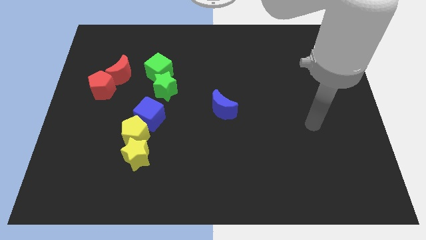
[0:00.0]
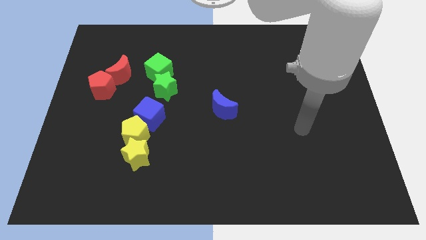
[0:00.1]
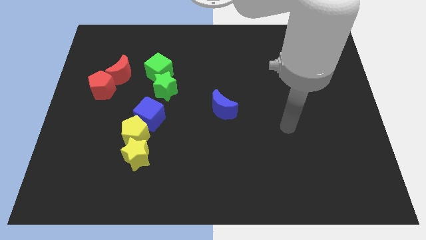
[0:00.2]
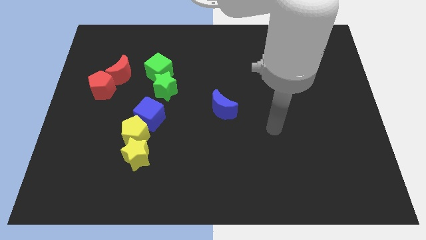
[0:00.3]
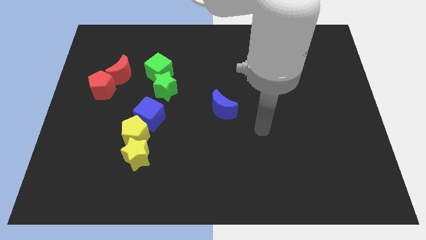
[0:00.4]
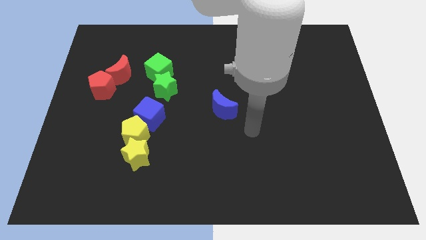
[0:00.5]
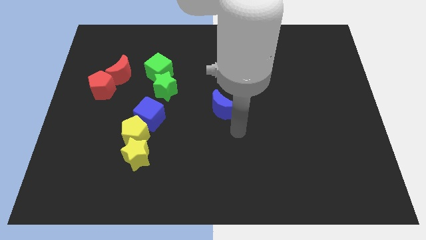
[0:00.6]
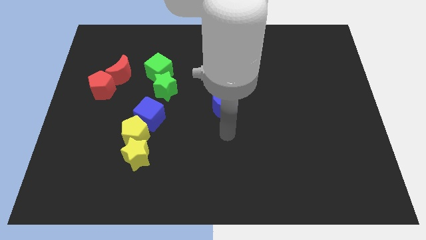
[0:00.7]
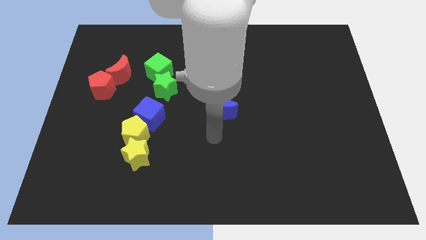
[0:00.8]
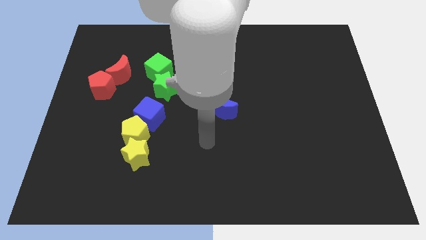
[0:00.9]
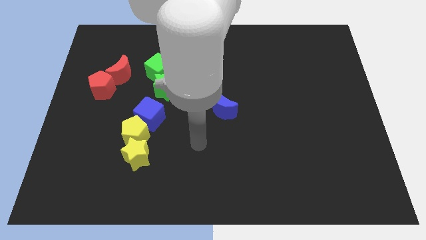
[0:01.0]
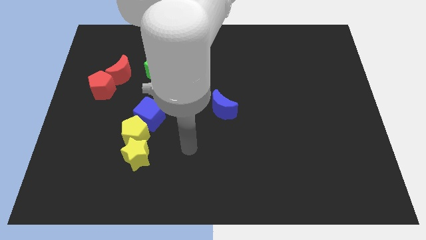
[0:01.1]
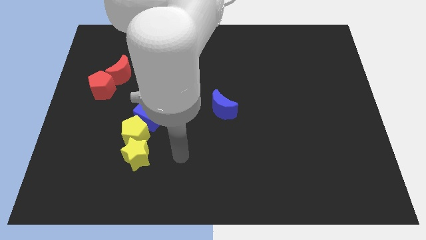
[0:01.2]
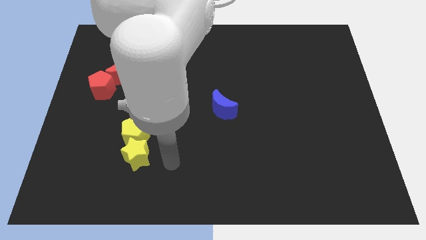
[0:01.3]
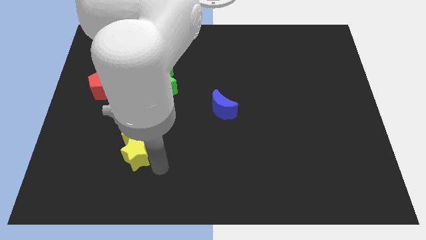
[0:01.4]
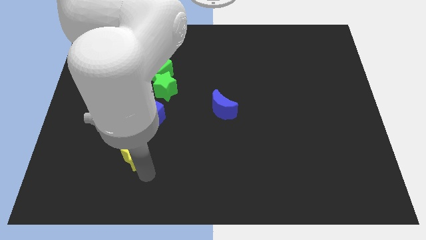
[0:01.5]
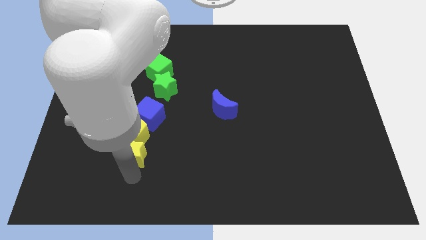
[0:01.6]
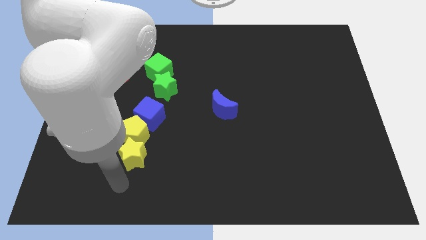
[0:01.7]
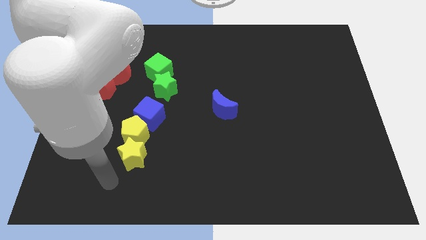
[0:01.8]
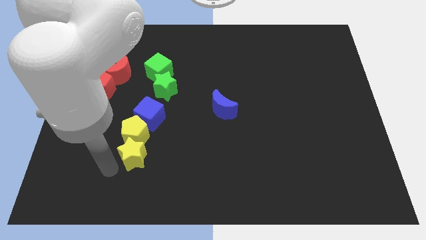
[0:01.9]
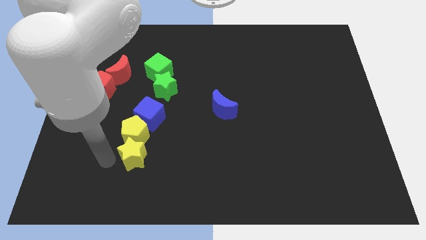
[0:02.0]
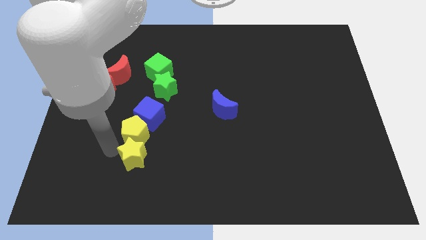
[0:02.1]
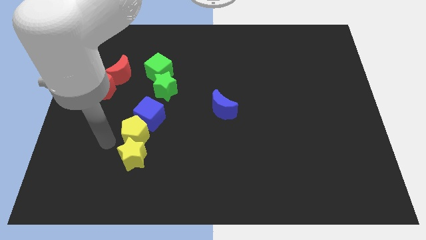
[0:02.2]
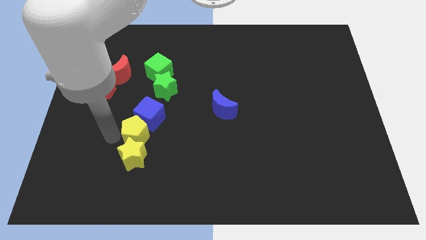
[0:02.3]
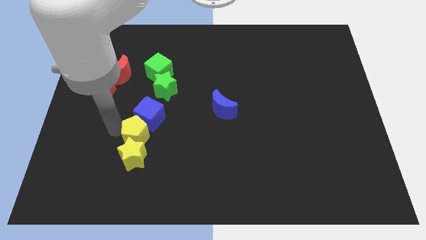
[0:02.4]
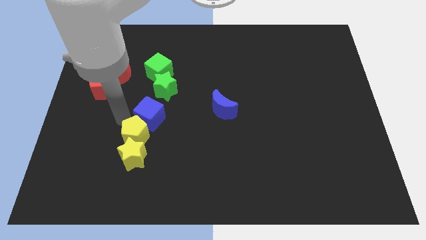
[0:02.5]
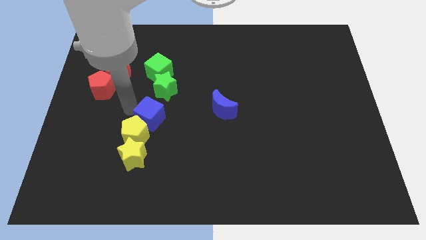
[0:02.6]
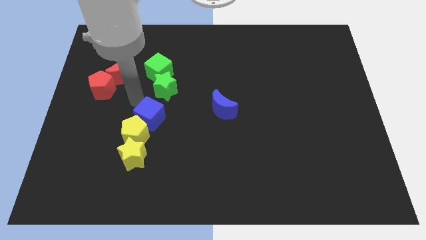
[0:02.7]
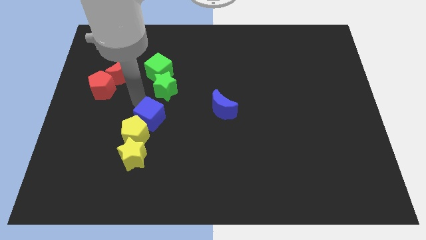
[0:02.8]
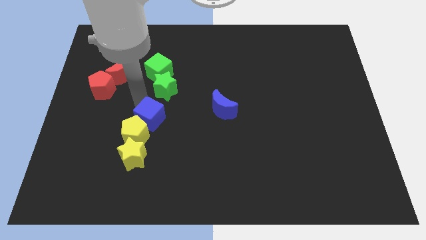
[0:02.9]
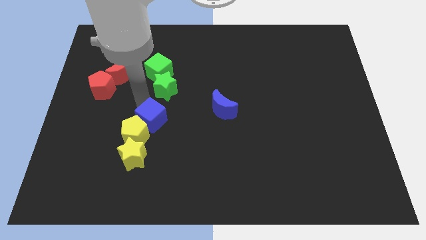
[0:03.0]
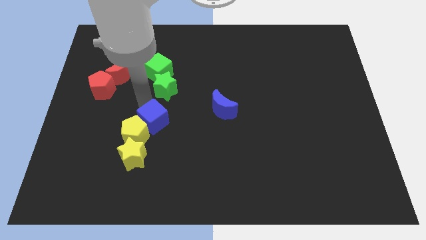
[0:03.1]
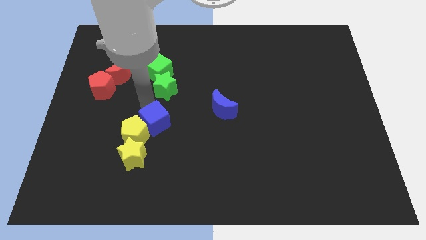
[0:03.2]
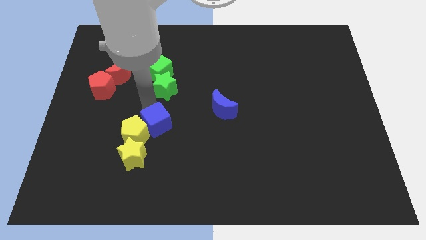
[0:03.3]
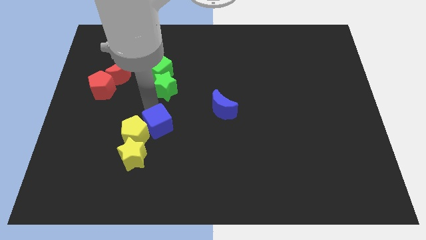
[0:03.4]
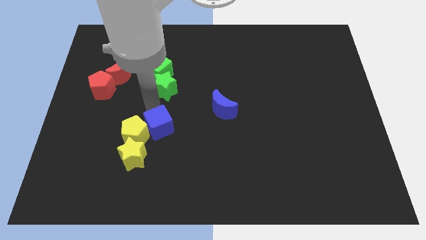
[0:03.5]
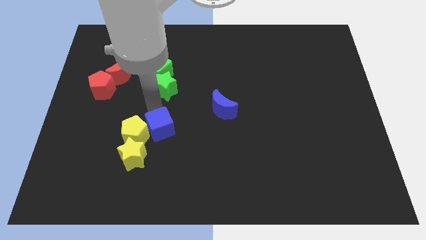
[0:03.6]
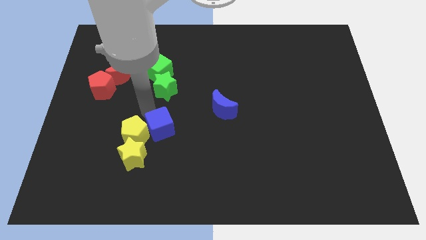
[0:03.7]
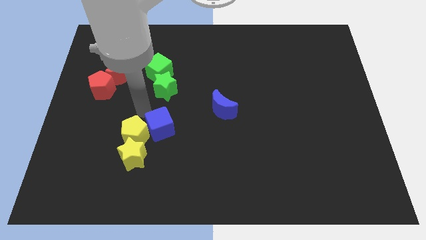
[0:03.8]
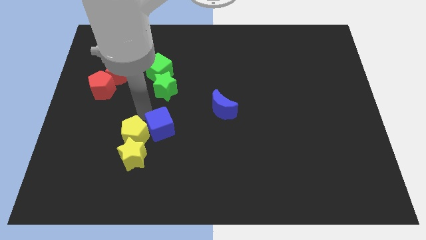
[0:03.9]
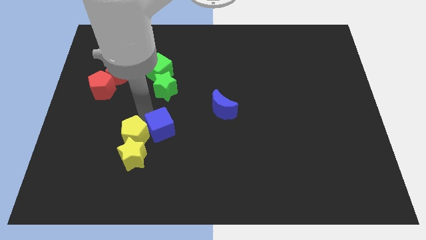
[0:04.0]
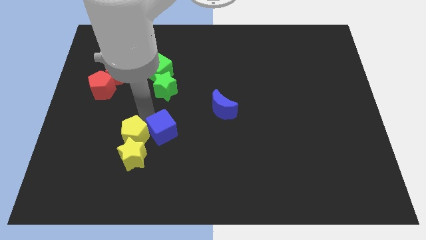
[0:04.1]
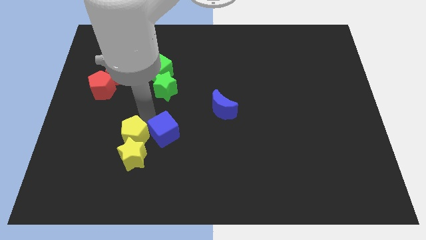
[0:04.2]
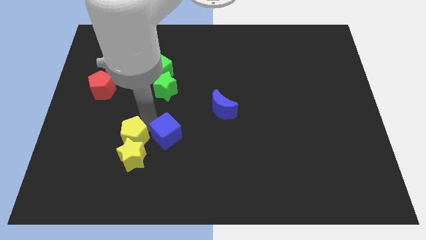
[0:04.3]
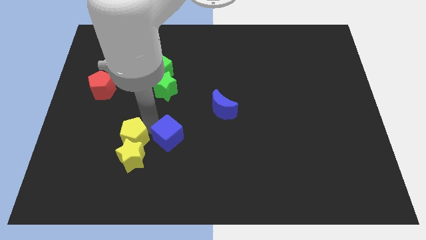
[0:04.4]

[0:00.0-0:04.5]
move the blue cube slightly down and right diagonally

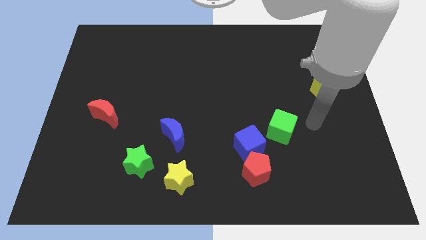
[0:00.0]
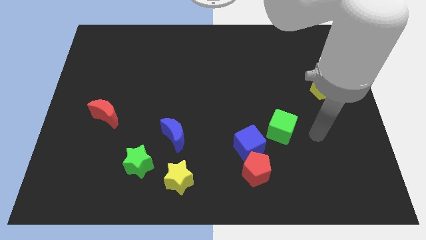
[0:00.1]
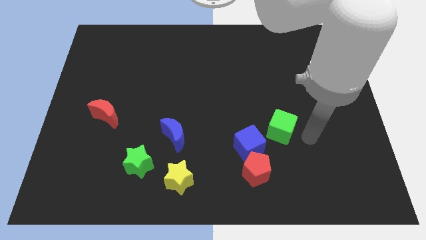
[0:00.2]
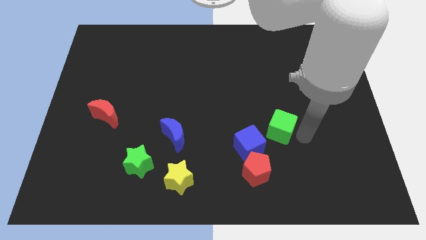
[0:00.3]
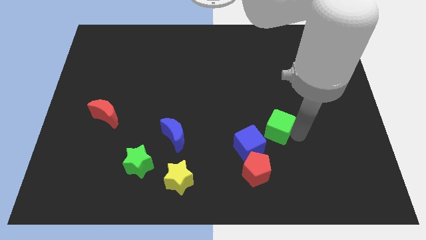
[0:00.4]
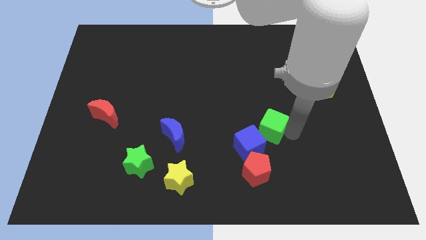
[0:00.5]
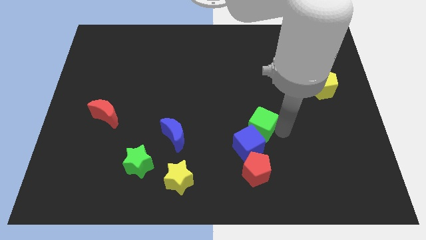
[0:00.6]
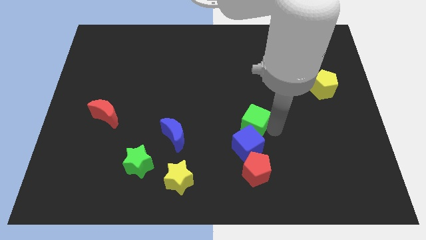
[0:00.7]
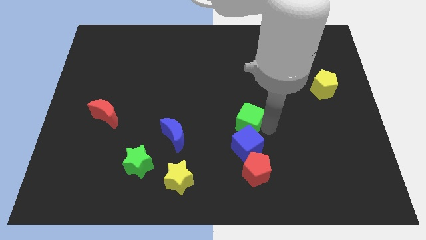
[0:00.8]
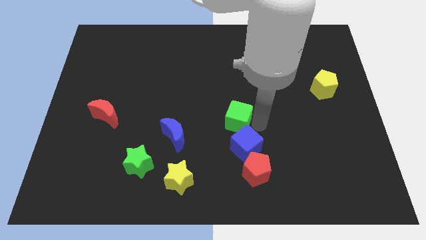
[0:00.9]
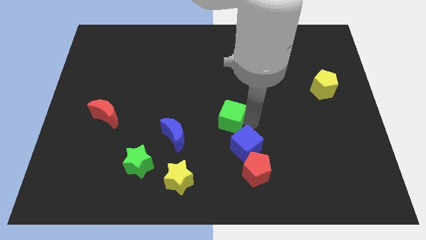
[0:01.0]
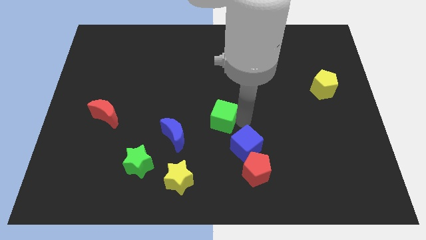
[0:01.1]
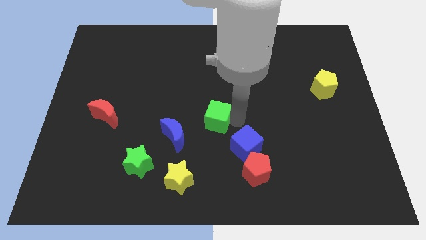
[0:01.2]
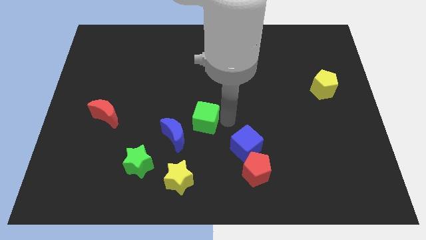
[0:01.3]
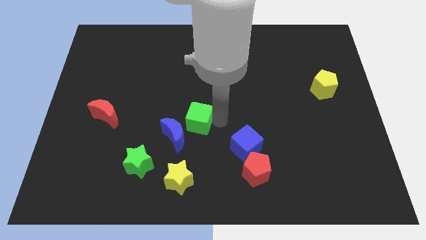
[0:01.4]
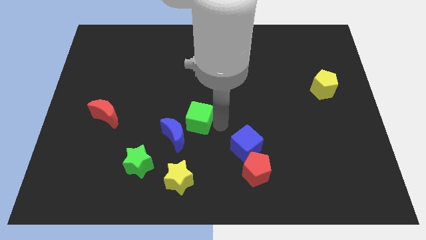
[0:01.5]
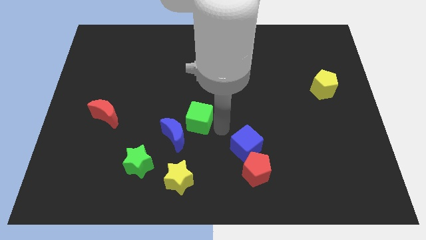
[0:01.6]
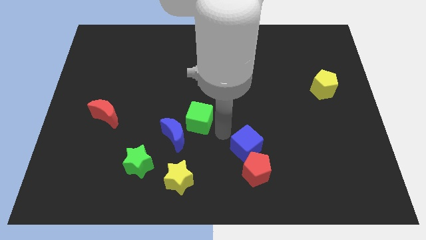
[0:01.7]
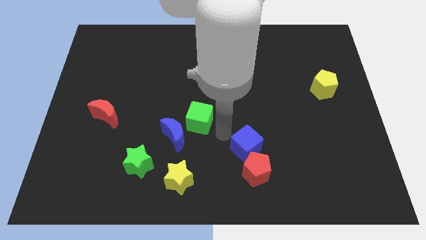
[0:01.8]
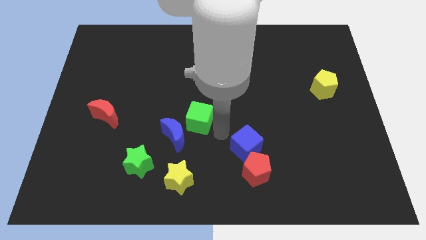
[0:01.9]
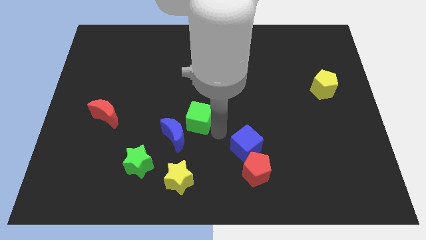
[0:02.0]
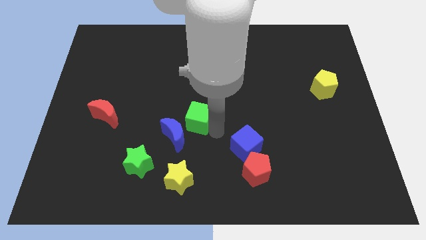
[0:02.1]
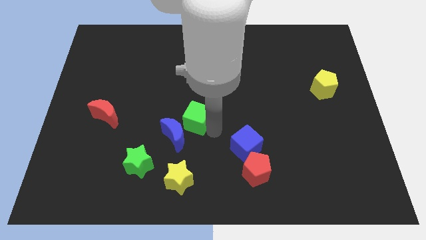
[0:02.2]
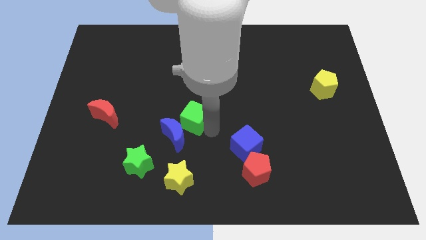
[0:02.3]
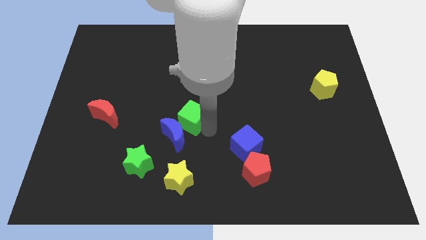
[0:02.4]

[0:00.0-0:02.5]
move the green cube left

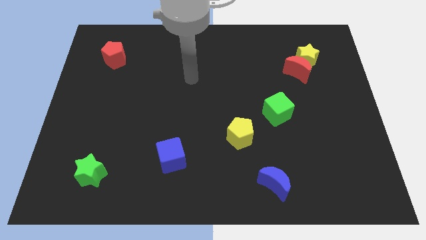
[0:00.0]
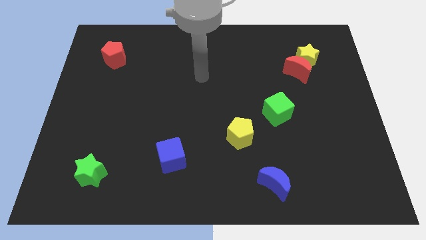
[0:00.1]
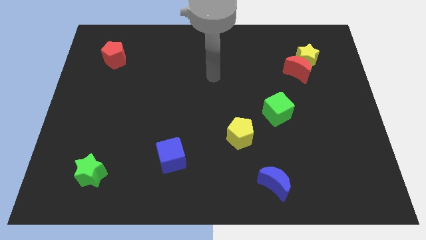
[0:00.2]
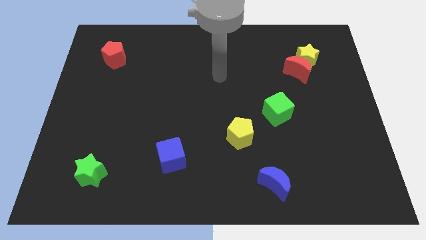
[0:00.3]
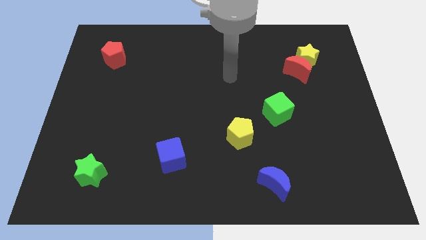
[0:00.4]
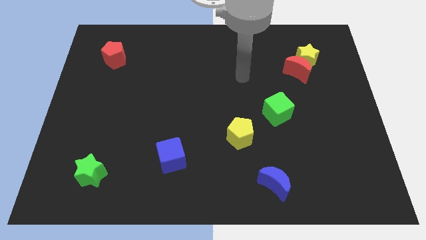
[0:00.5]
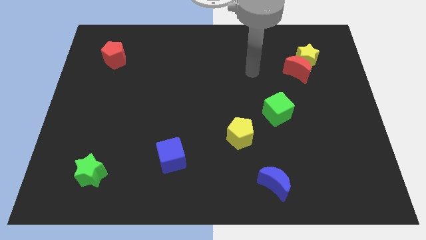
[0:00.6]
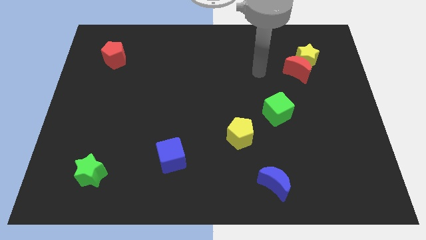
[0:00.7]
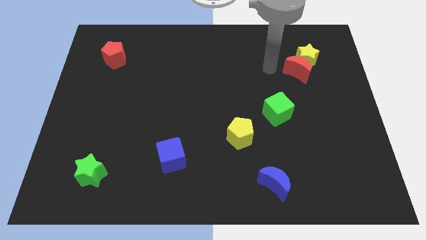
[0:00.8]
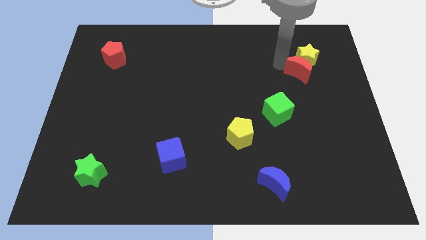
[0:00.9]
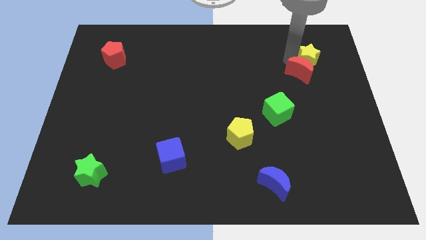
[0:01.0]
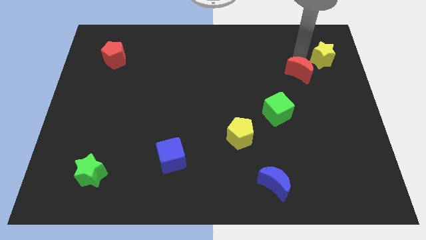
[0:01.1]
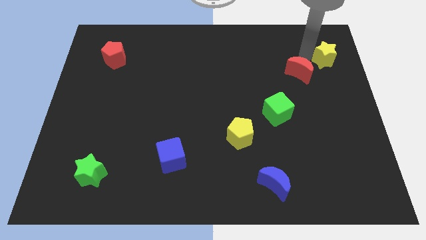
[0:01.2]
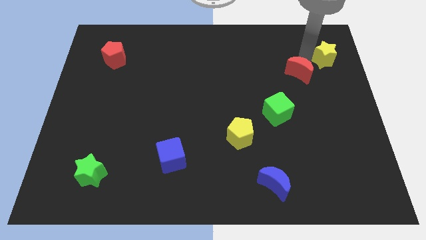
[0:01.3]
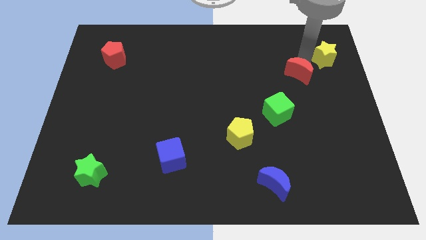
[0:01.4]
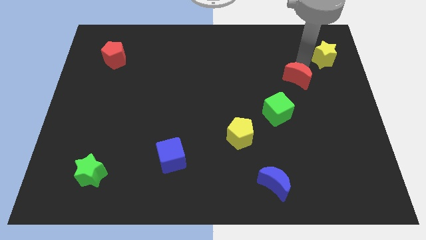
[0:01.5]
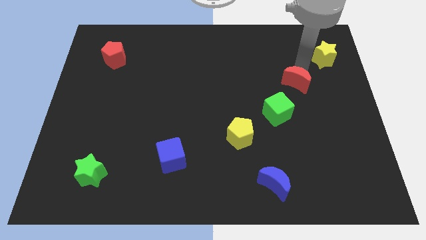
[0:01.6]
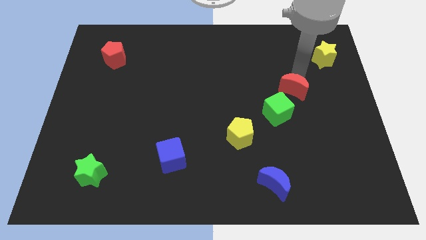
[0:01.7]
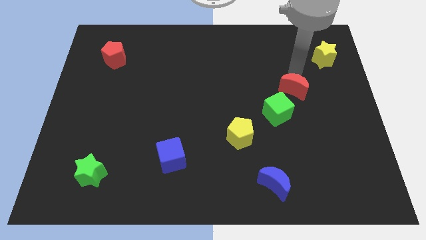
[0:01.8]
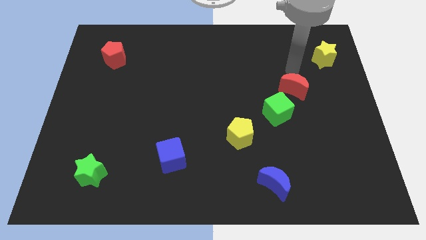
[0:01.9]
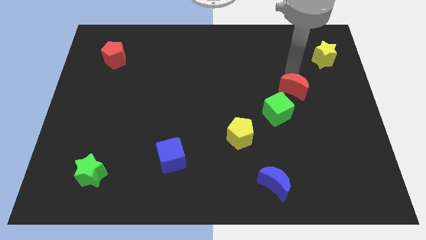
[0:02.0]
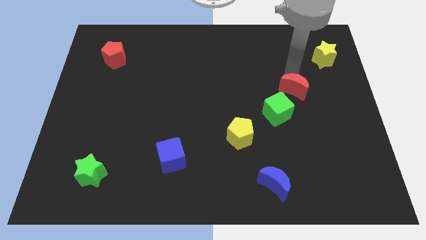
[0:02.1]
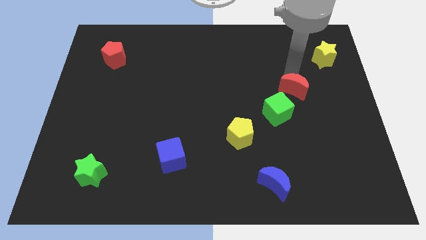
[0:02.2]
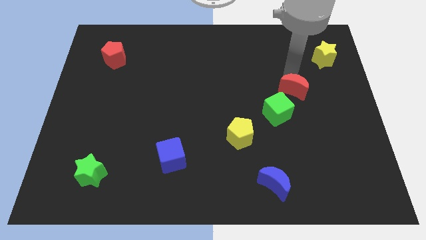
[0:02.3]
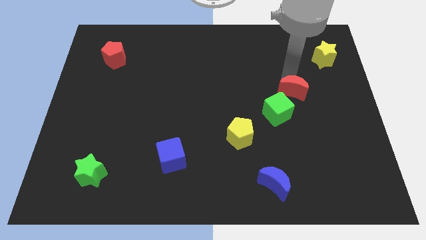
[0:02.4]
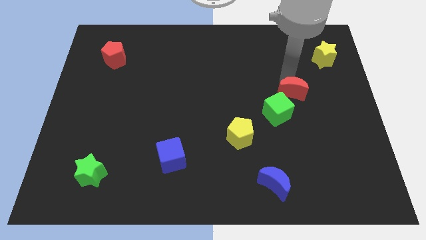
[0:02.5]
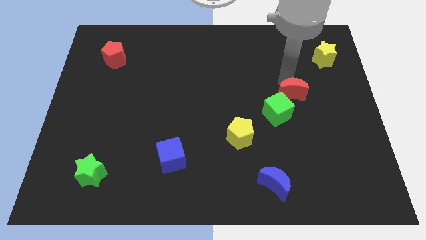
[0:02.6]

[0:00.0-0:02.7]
push the red moon a little bit down
